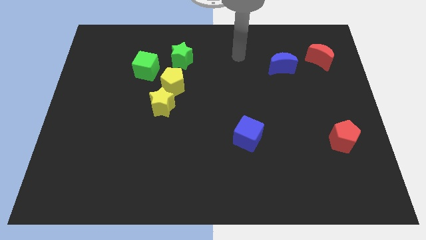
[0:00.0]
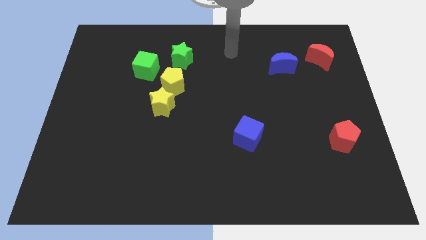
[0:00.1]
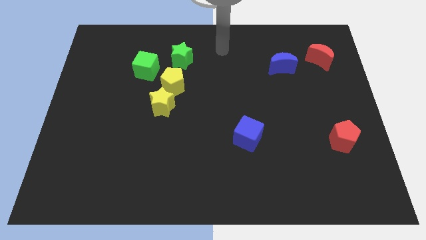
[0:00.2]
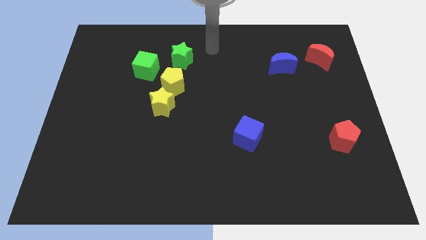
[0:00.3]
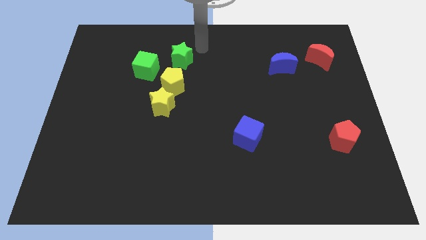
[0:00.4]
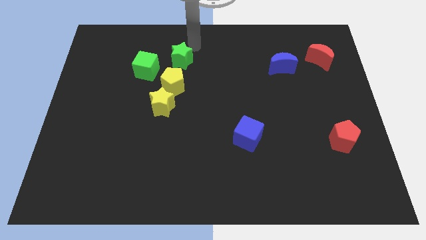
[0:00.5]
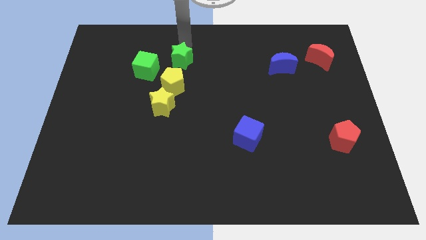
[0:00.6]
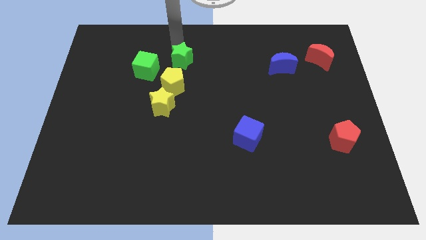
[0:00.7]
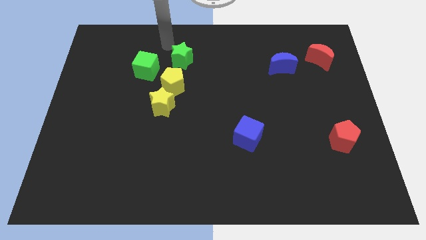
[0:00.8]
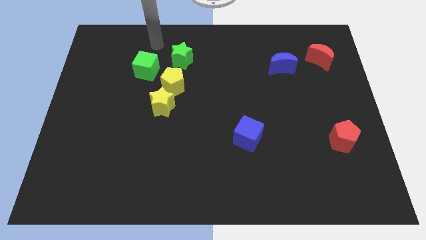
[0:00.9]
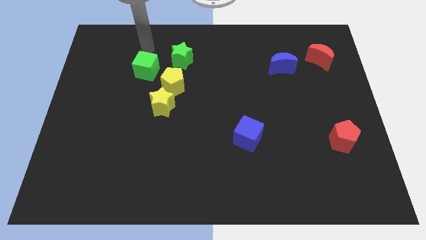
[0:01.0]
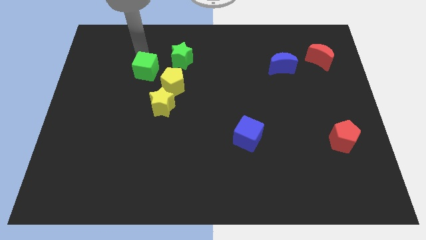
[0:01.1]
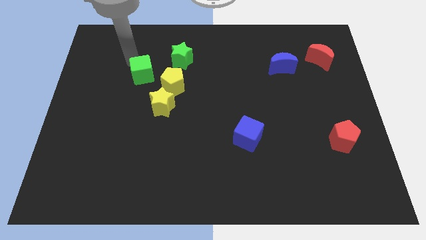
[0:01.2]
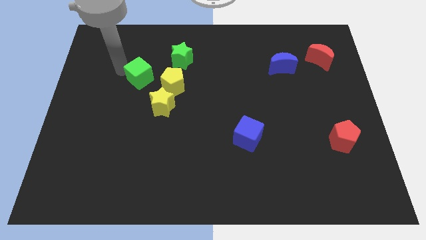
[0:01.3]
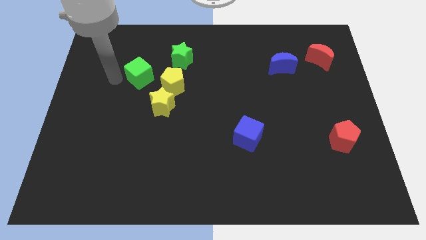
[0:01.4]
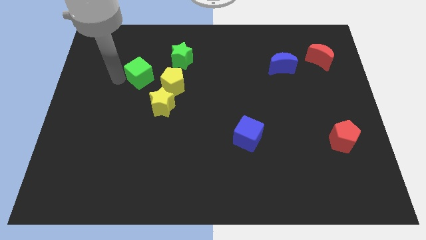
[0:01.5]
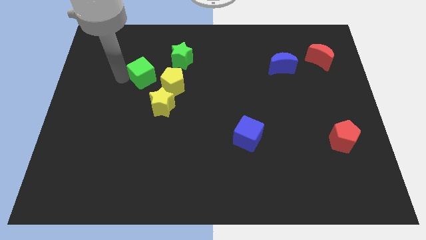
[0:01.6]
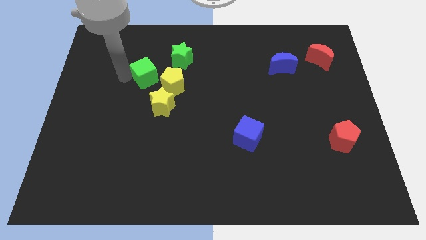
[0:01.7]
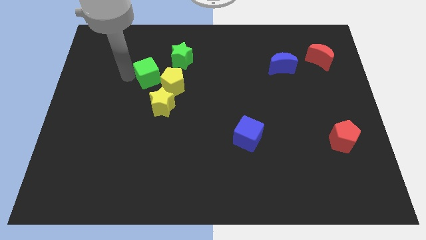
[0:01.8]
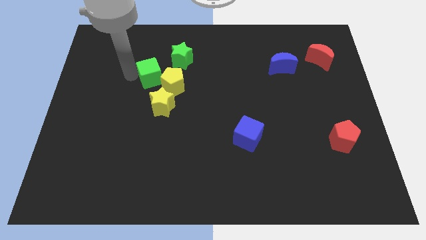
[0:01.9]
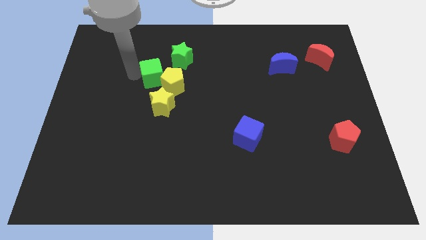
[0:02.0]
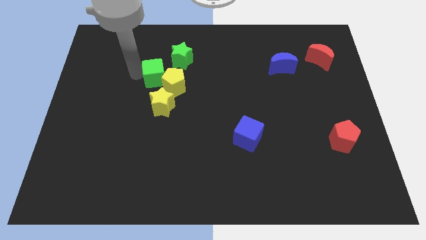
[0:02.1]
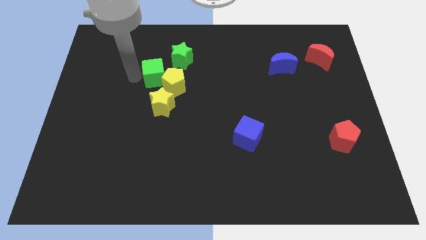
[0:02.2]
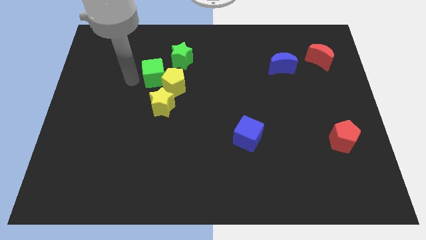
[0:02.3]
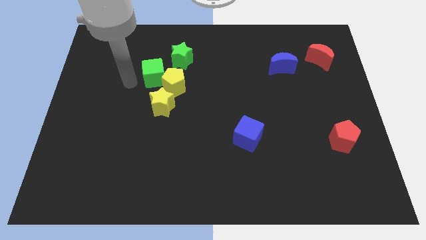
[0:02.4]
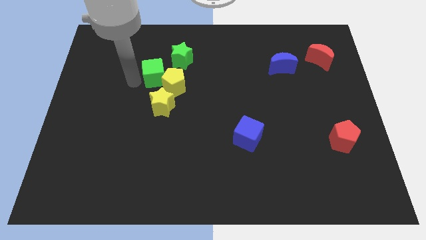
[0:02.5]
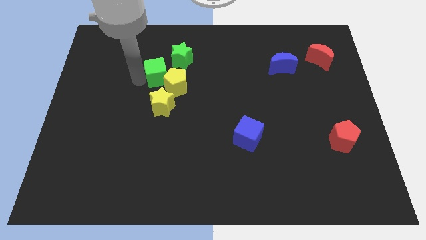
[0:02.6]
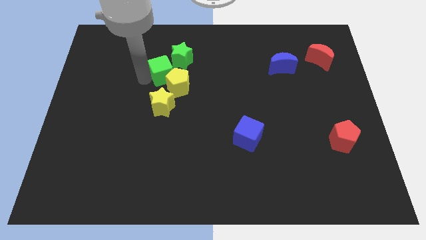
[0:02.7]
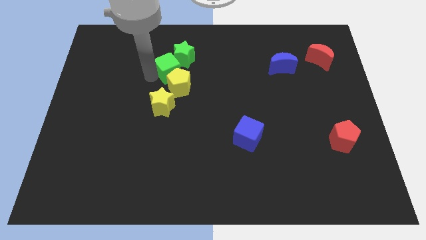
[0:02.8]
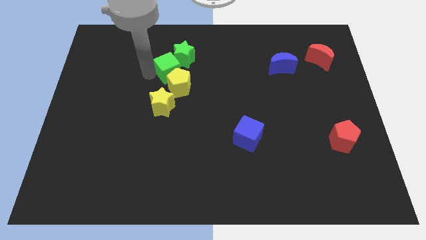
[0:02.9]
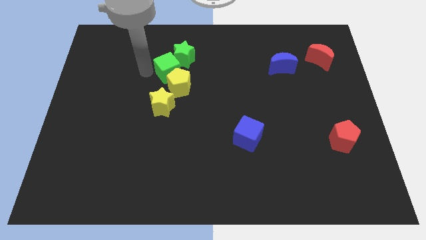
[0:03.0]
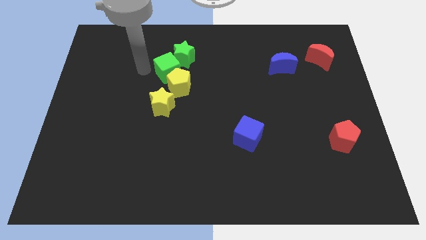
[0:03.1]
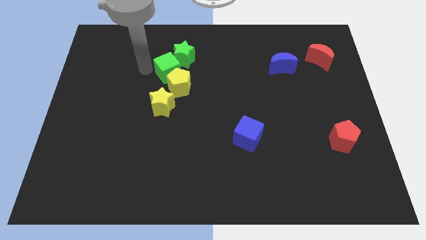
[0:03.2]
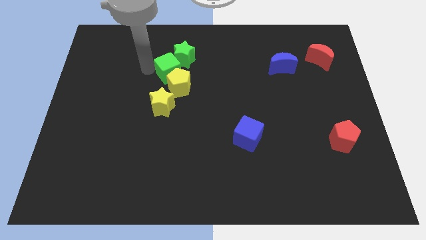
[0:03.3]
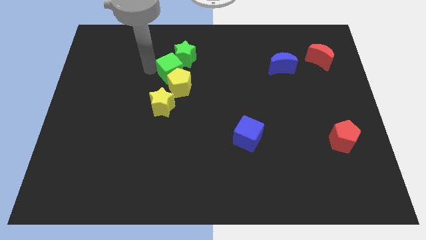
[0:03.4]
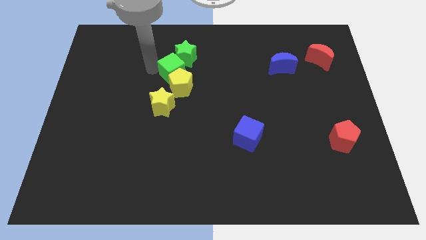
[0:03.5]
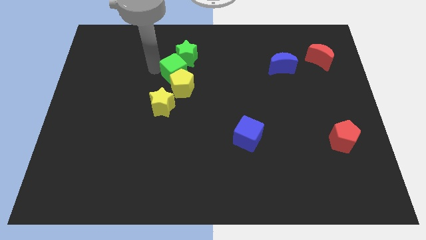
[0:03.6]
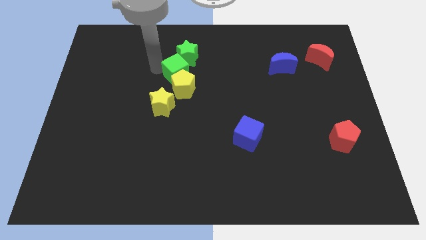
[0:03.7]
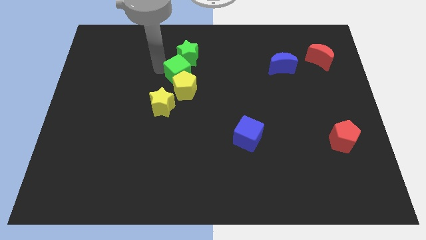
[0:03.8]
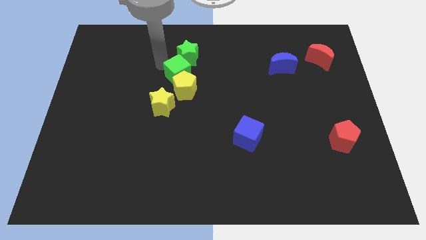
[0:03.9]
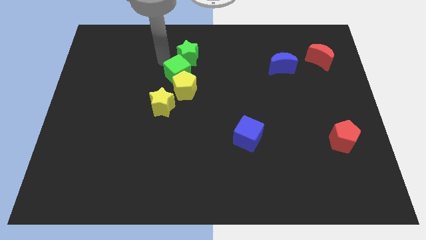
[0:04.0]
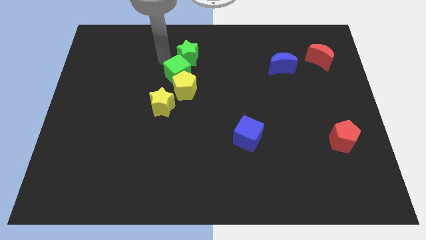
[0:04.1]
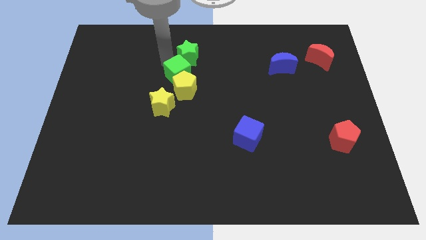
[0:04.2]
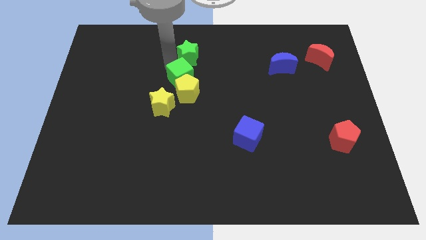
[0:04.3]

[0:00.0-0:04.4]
slightly move the green cube down and right diagonally

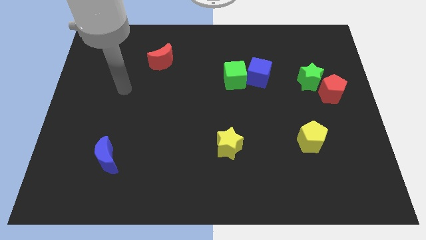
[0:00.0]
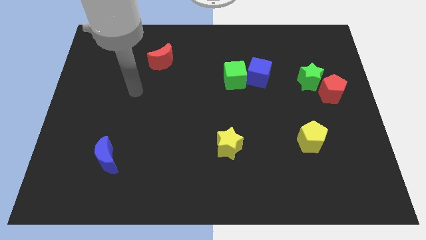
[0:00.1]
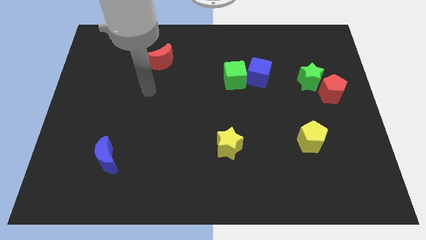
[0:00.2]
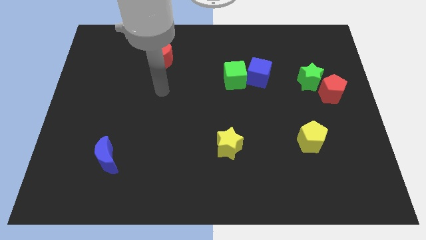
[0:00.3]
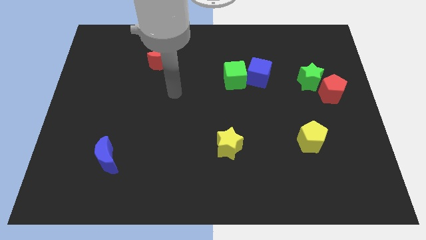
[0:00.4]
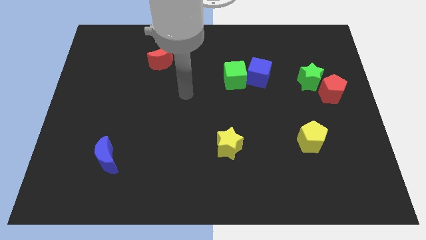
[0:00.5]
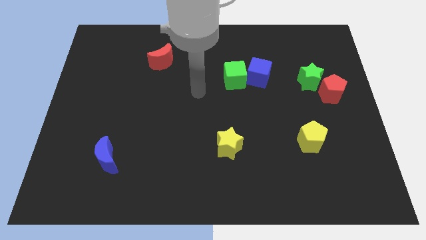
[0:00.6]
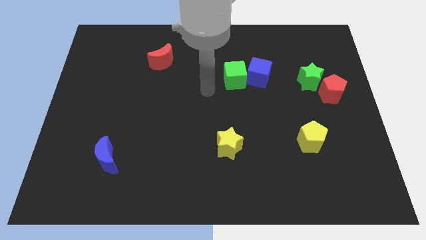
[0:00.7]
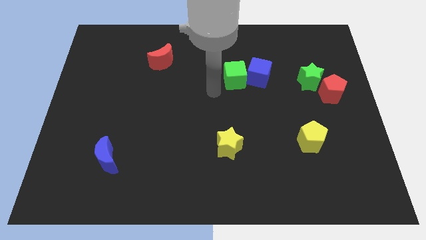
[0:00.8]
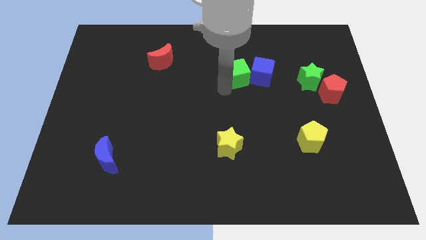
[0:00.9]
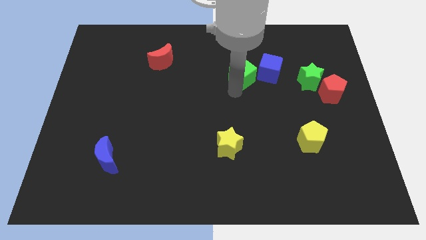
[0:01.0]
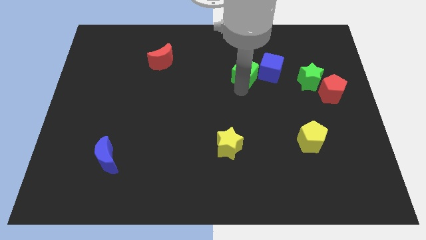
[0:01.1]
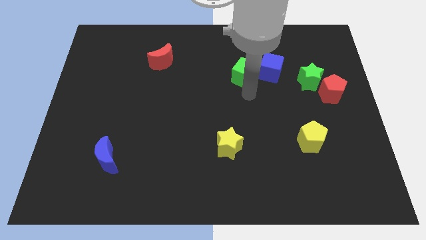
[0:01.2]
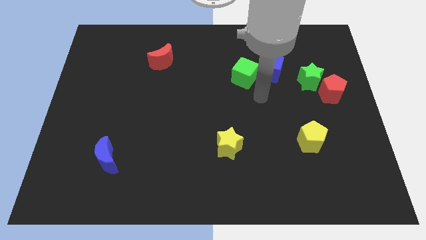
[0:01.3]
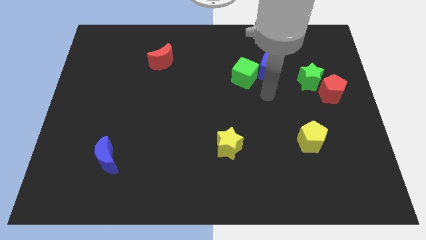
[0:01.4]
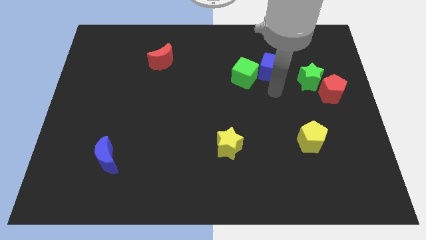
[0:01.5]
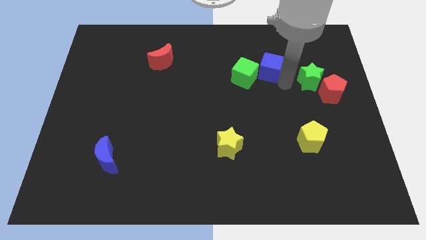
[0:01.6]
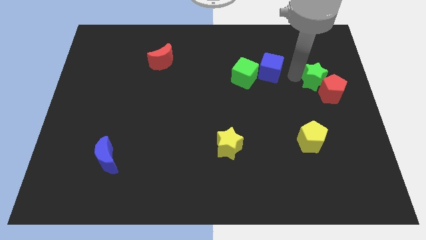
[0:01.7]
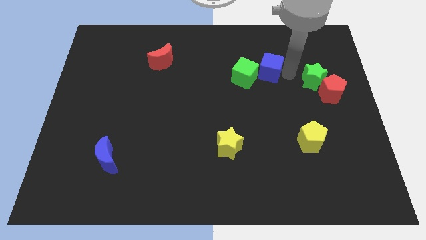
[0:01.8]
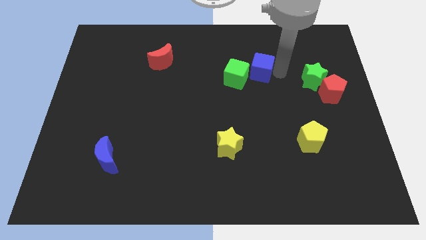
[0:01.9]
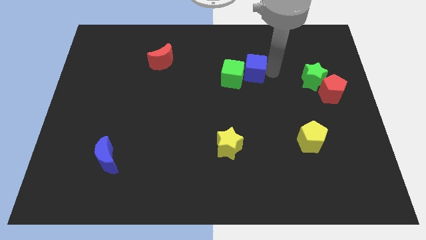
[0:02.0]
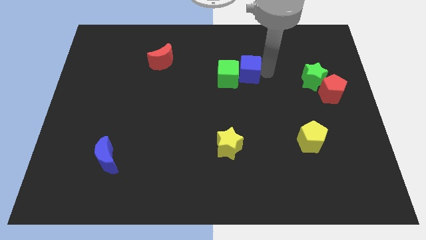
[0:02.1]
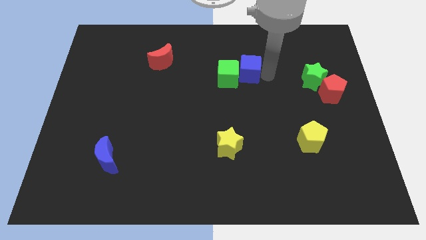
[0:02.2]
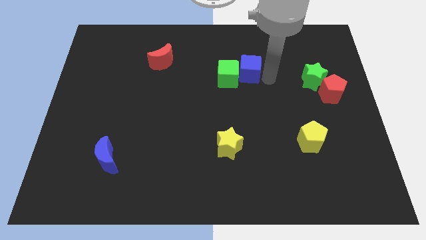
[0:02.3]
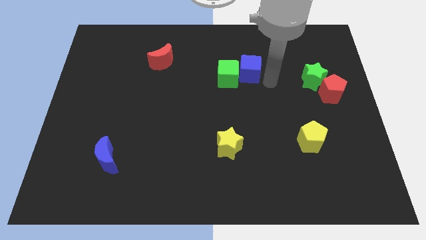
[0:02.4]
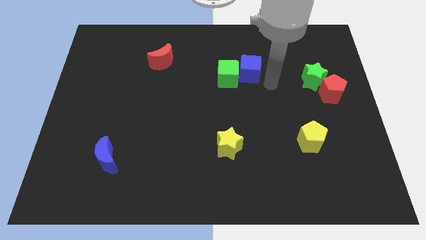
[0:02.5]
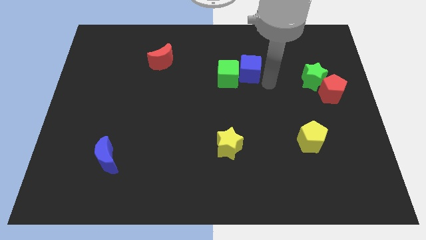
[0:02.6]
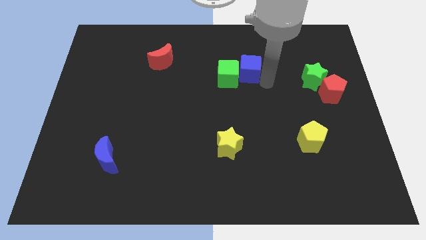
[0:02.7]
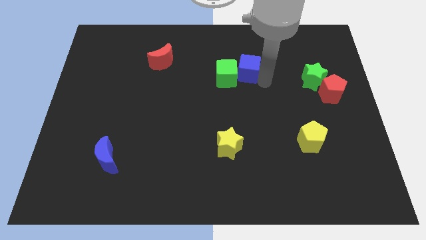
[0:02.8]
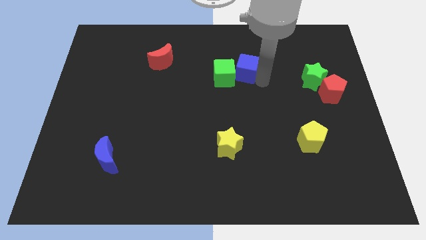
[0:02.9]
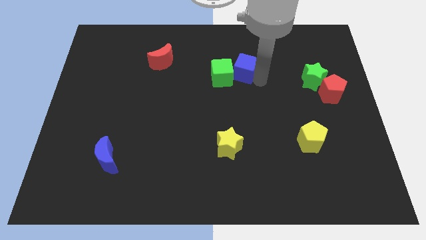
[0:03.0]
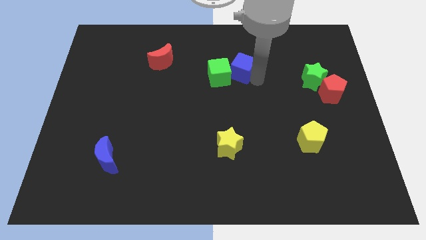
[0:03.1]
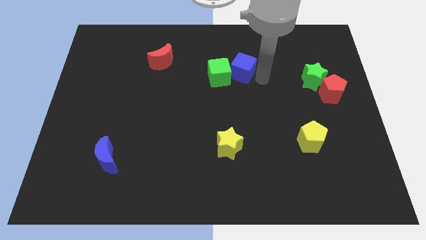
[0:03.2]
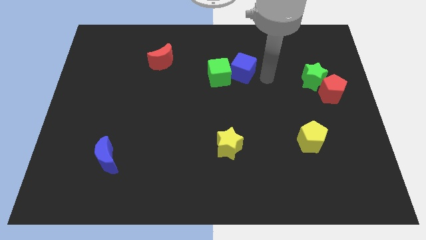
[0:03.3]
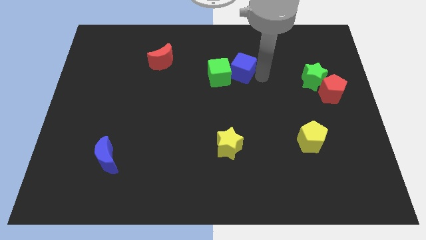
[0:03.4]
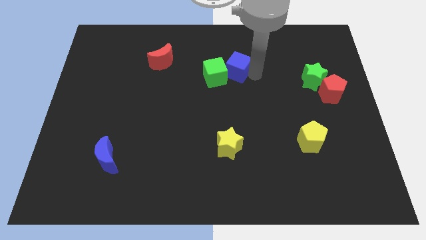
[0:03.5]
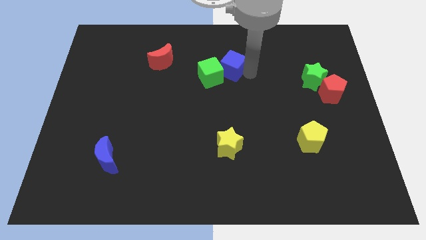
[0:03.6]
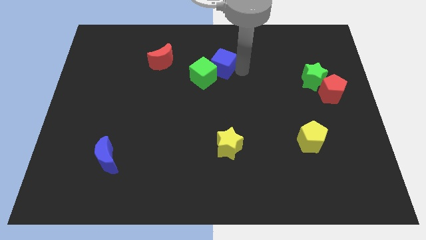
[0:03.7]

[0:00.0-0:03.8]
slide the blue cube to the left a bit

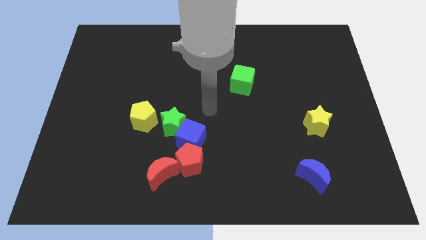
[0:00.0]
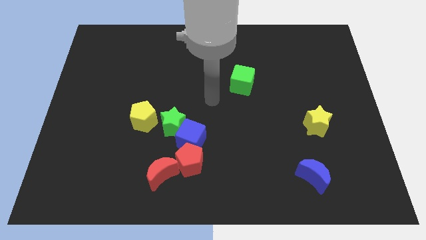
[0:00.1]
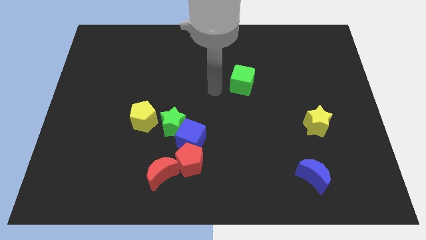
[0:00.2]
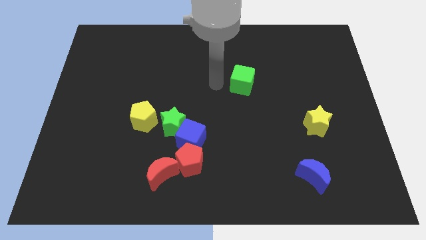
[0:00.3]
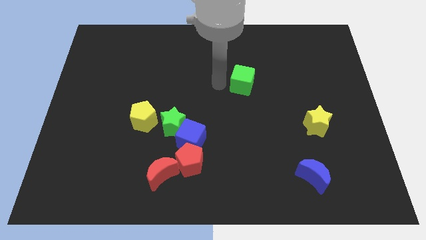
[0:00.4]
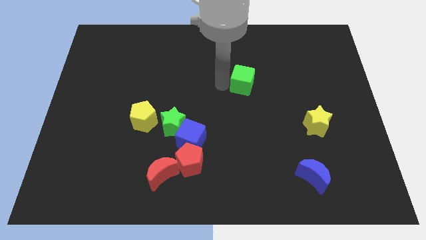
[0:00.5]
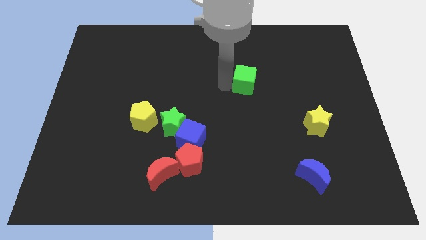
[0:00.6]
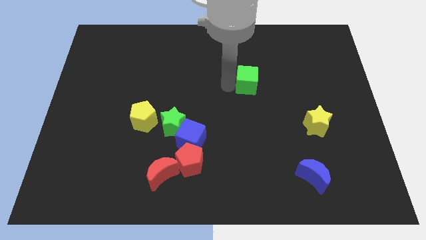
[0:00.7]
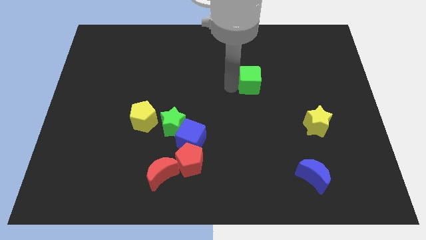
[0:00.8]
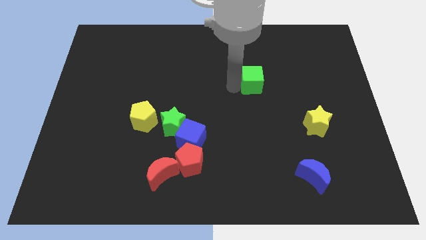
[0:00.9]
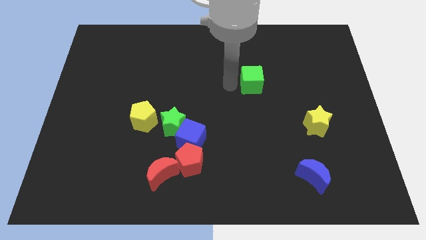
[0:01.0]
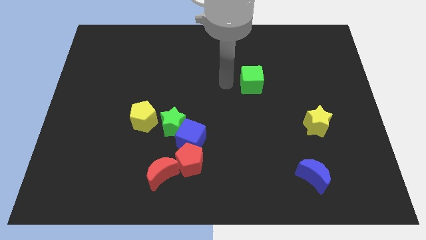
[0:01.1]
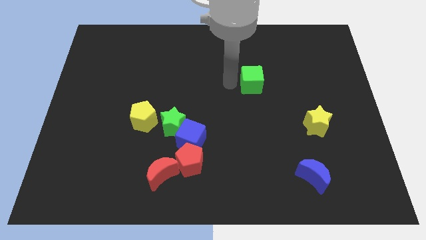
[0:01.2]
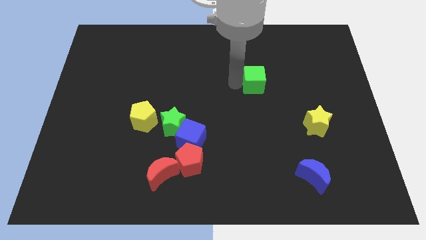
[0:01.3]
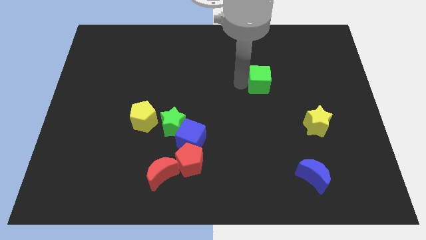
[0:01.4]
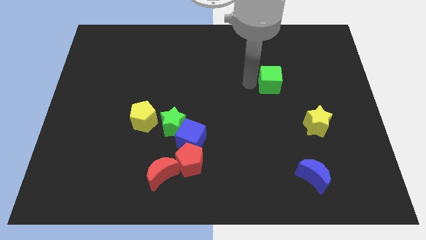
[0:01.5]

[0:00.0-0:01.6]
push the green cube a little to the right
